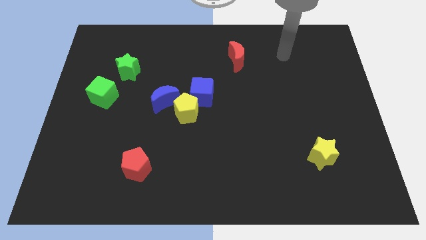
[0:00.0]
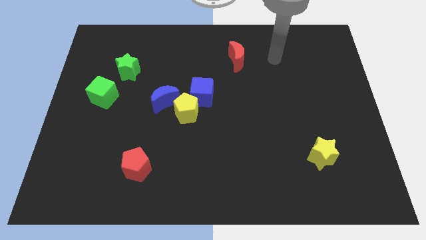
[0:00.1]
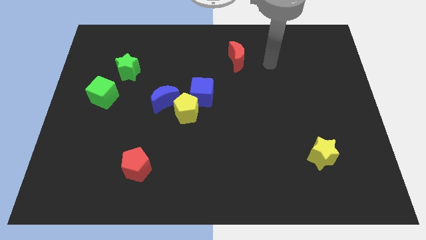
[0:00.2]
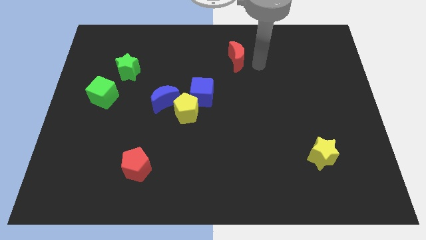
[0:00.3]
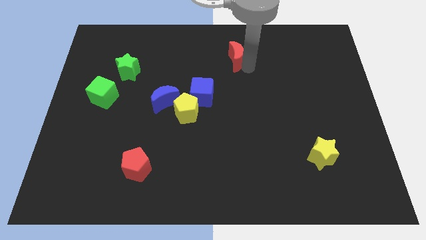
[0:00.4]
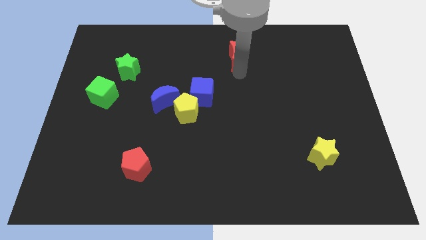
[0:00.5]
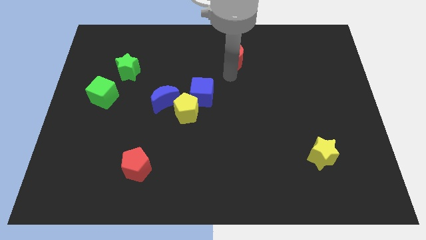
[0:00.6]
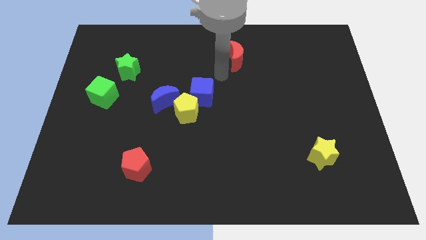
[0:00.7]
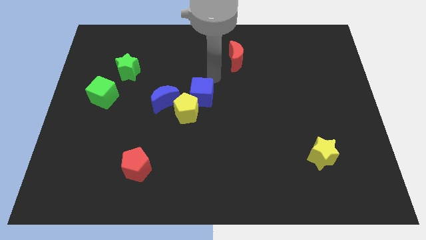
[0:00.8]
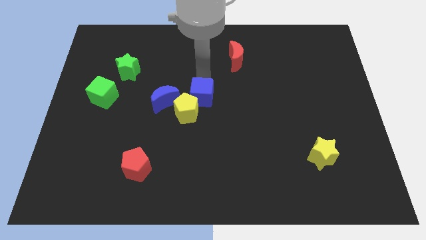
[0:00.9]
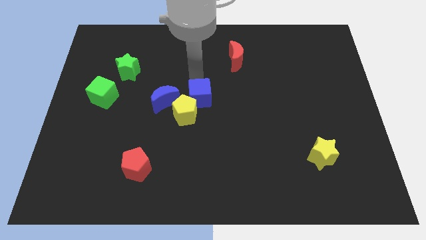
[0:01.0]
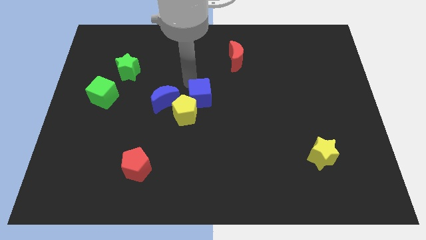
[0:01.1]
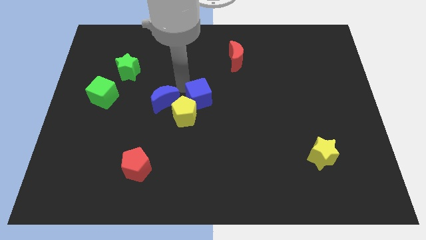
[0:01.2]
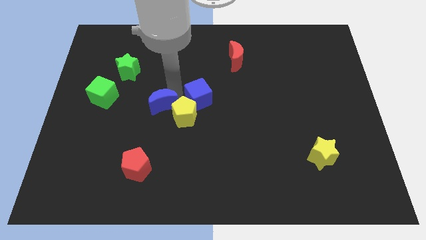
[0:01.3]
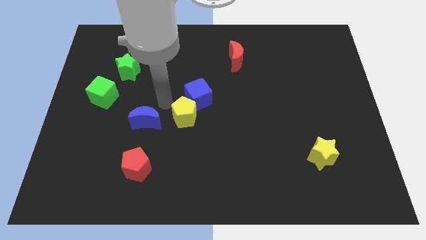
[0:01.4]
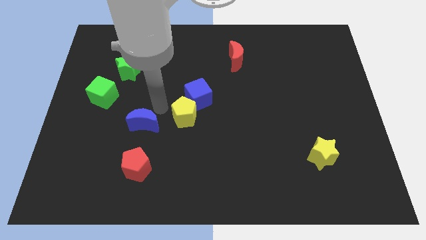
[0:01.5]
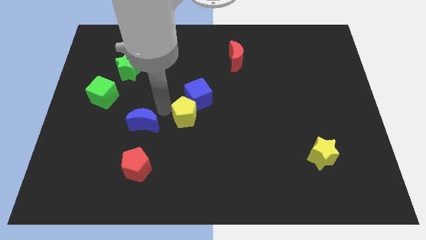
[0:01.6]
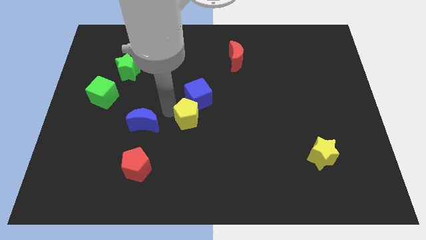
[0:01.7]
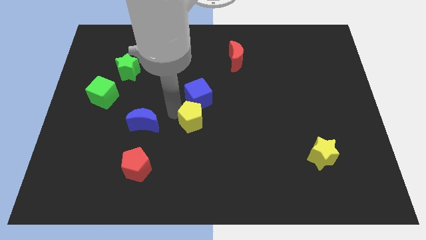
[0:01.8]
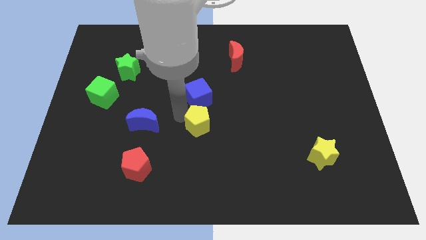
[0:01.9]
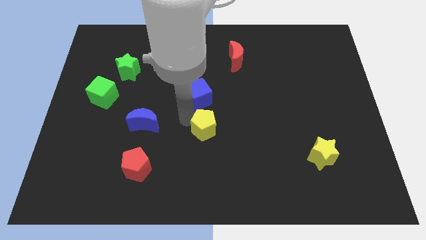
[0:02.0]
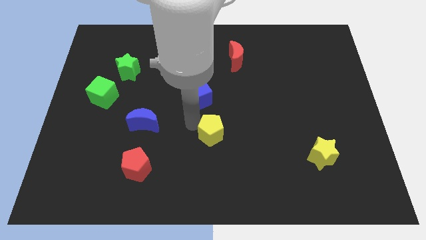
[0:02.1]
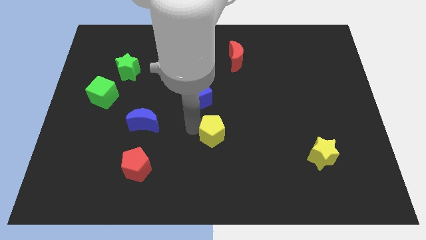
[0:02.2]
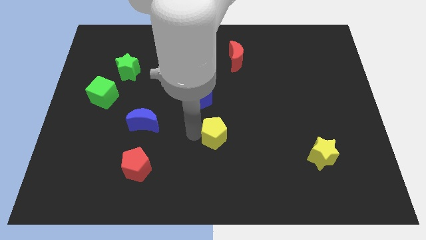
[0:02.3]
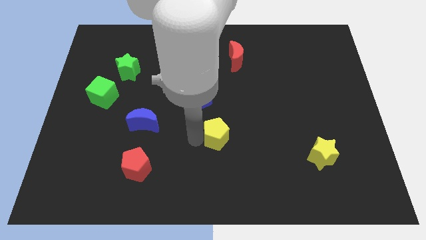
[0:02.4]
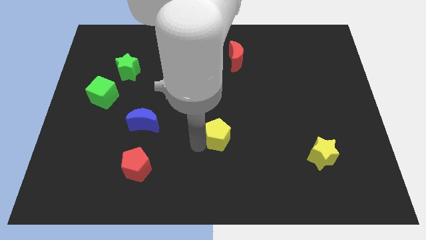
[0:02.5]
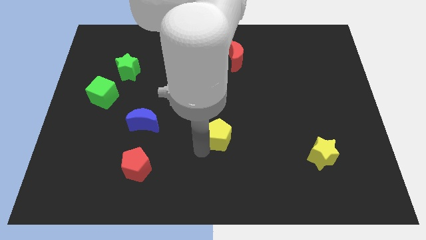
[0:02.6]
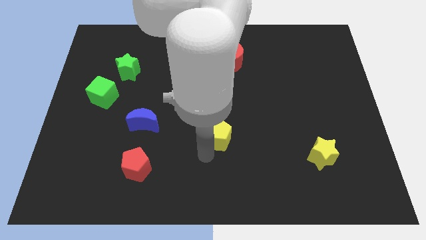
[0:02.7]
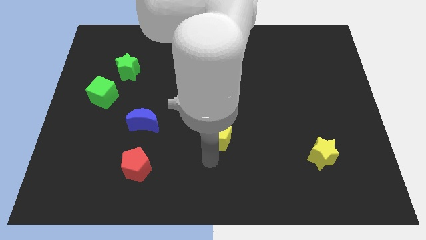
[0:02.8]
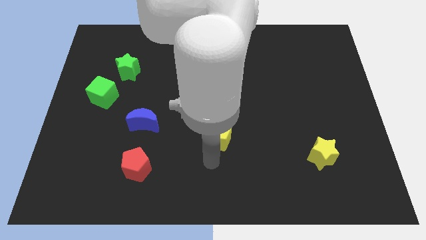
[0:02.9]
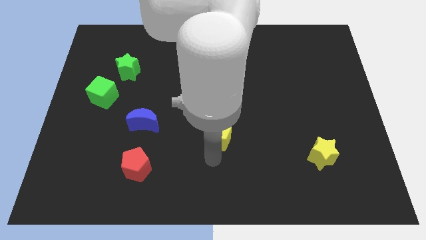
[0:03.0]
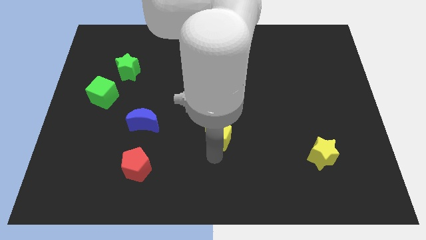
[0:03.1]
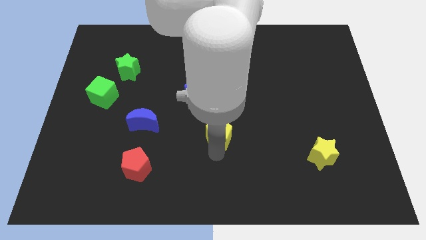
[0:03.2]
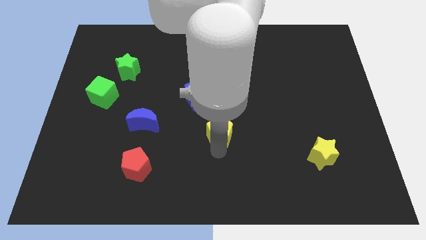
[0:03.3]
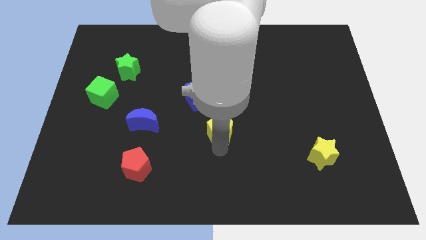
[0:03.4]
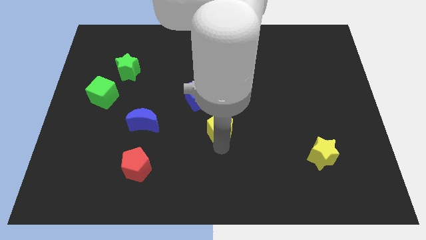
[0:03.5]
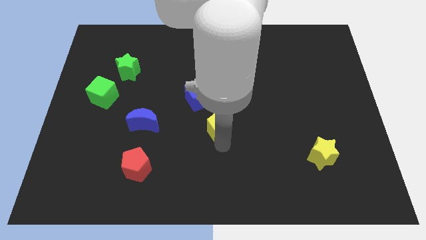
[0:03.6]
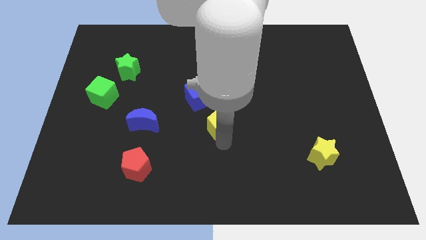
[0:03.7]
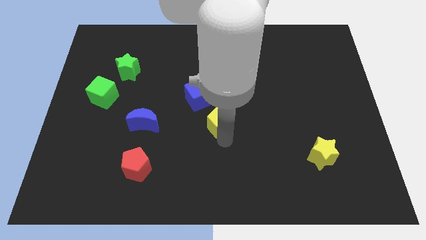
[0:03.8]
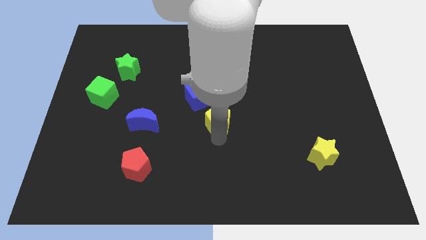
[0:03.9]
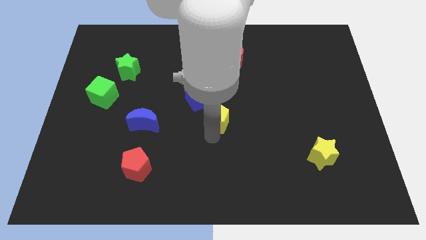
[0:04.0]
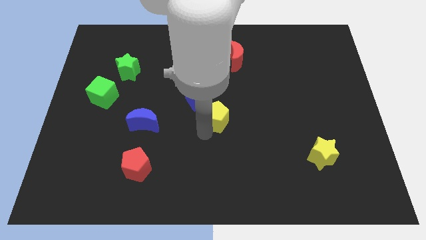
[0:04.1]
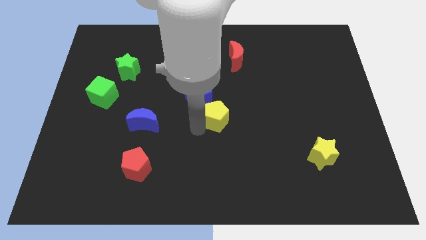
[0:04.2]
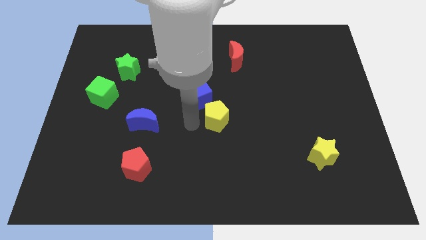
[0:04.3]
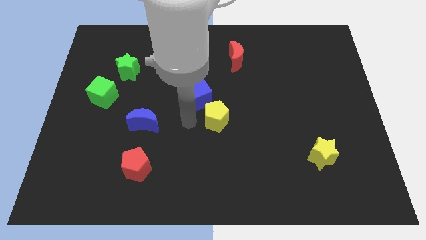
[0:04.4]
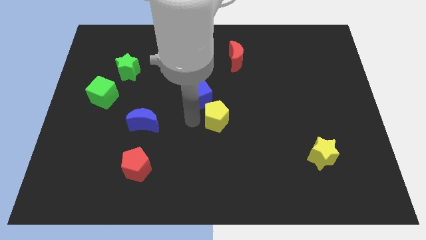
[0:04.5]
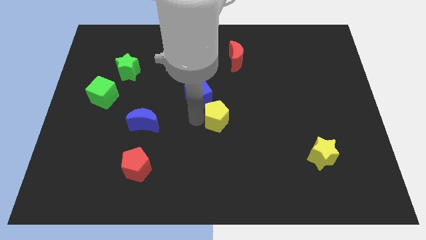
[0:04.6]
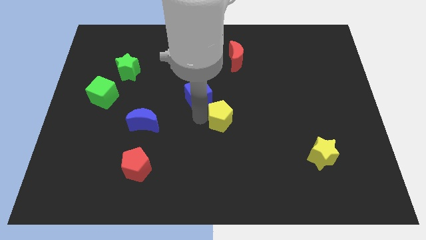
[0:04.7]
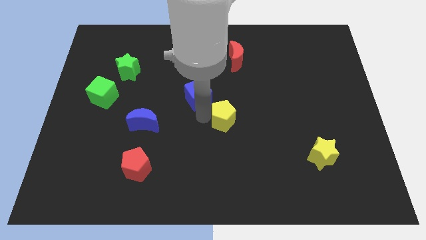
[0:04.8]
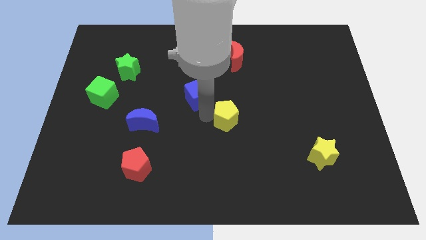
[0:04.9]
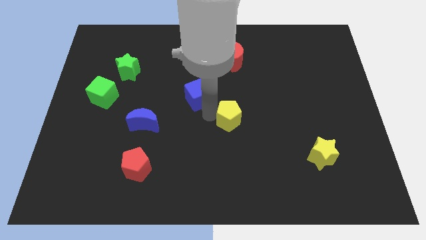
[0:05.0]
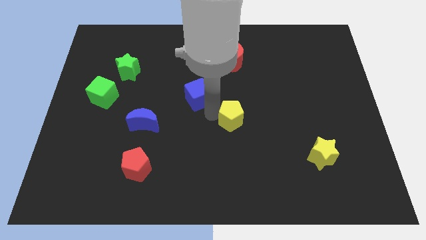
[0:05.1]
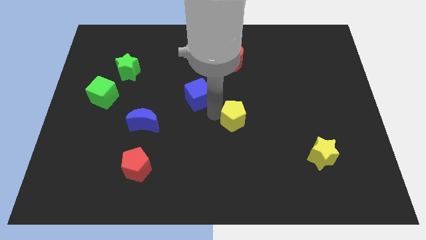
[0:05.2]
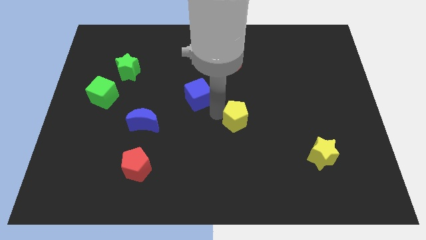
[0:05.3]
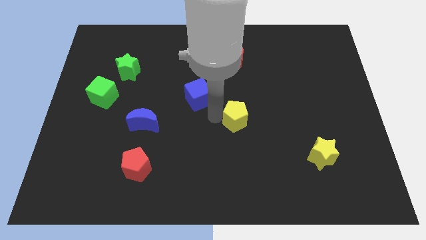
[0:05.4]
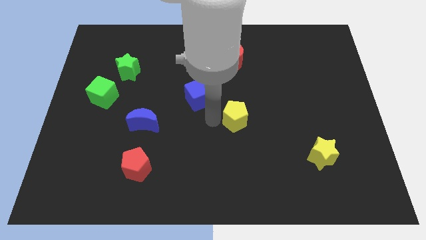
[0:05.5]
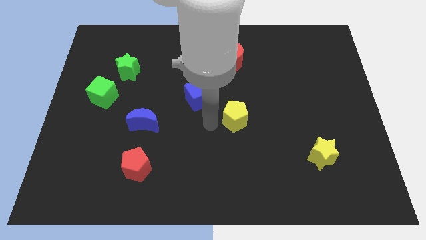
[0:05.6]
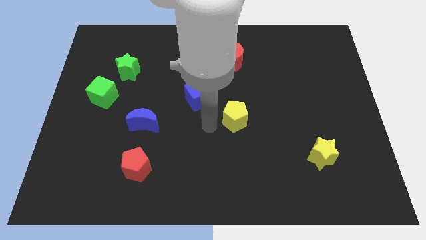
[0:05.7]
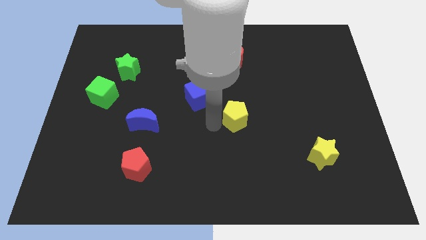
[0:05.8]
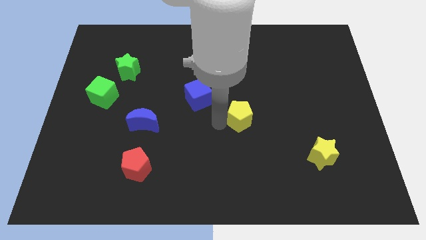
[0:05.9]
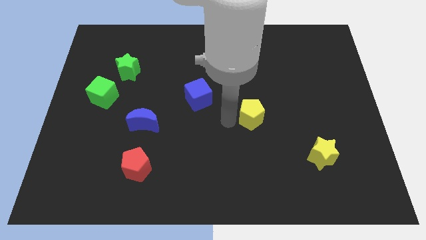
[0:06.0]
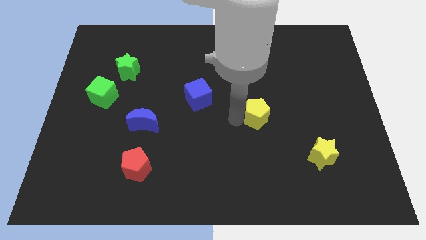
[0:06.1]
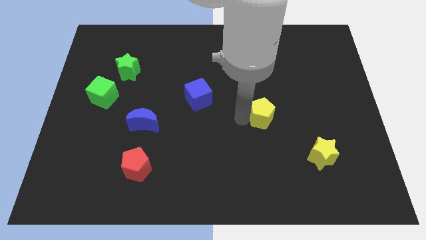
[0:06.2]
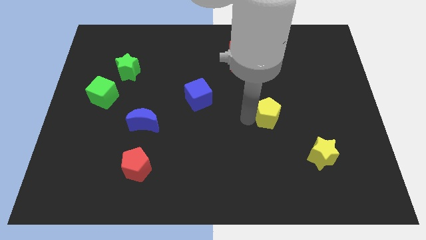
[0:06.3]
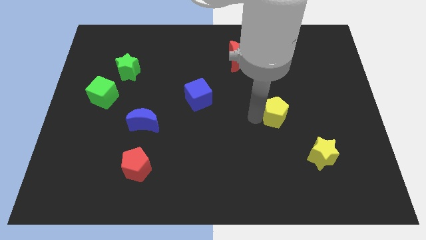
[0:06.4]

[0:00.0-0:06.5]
move the yellow pentagon right

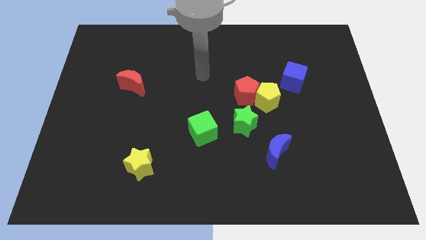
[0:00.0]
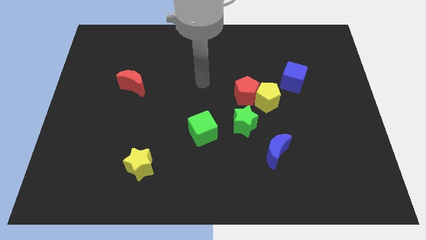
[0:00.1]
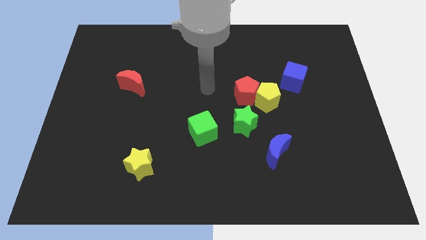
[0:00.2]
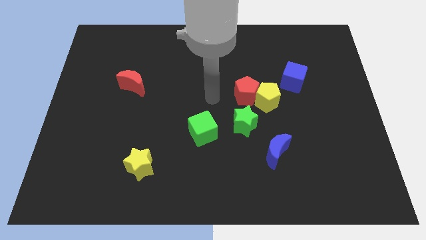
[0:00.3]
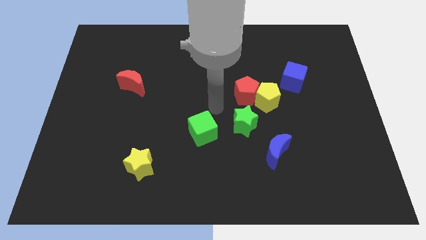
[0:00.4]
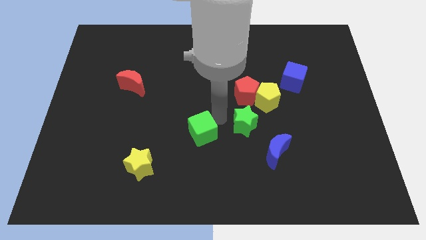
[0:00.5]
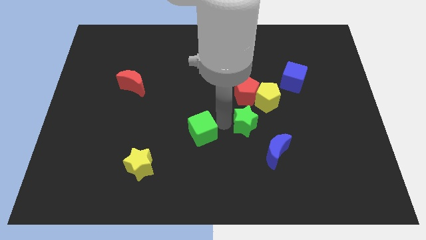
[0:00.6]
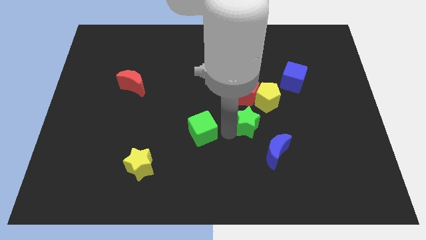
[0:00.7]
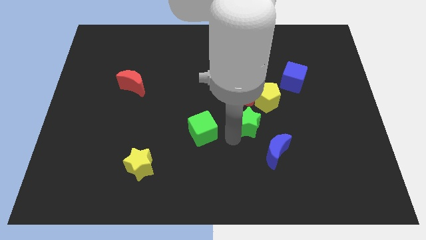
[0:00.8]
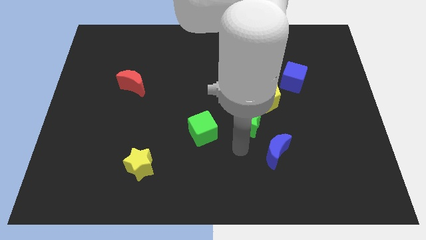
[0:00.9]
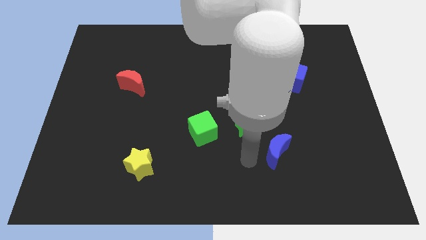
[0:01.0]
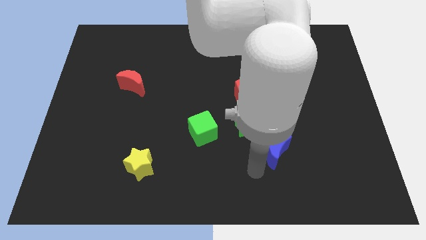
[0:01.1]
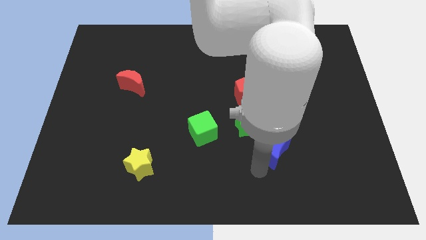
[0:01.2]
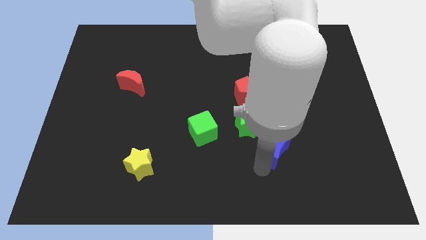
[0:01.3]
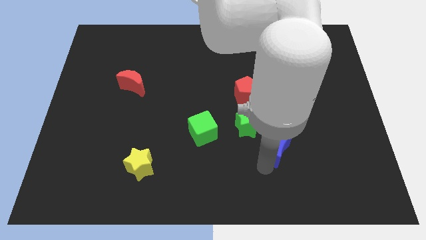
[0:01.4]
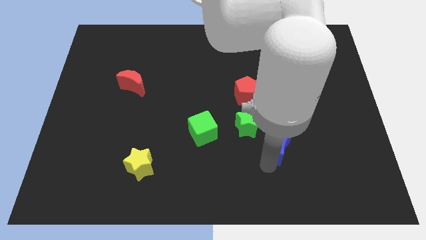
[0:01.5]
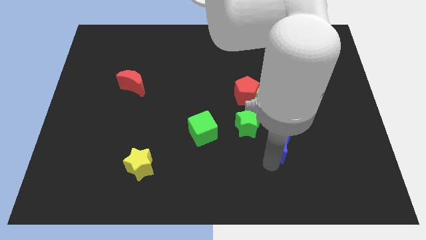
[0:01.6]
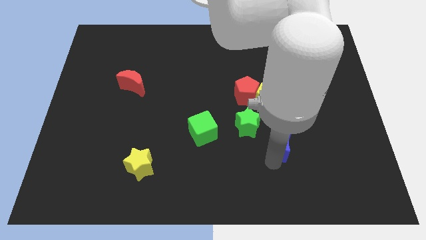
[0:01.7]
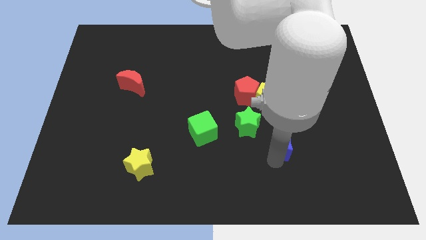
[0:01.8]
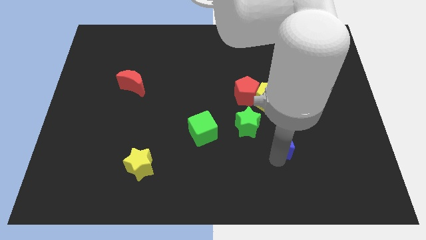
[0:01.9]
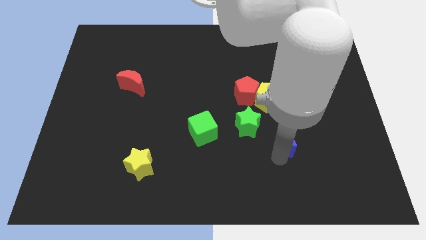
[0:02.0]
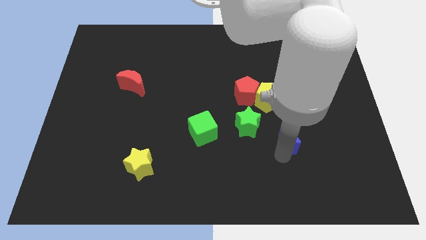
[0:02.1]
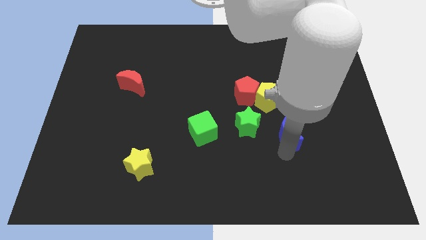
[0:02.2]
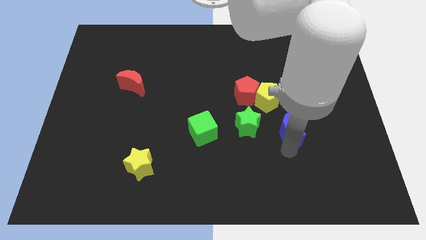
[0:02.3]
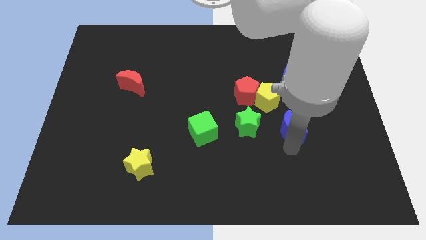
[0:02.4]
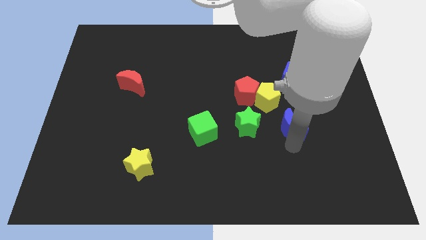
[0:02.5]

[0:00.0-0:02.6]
slide the blue moon a little up and then to the right
